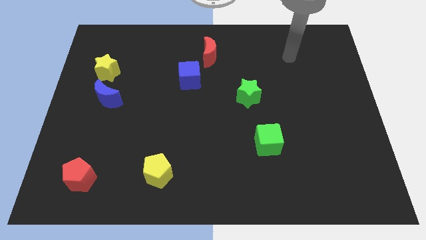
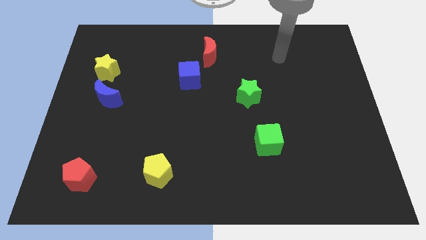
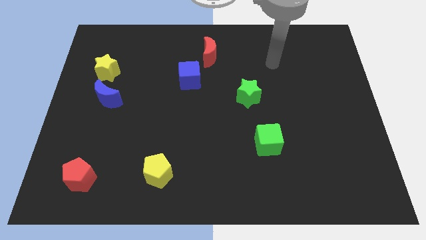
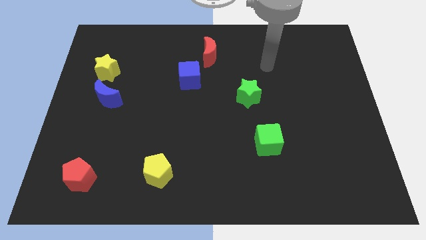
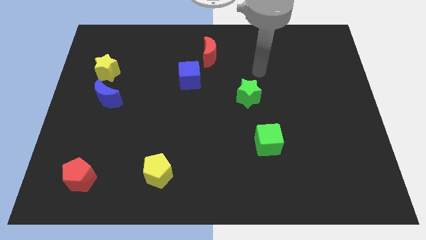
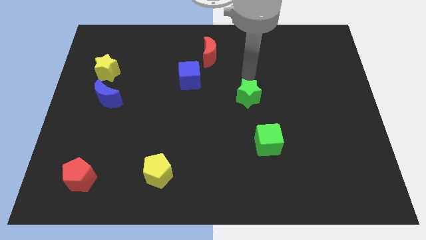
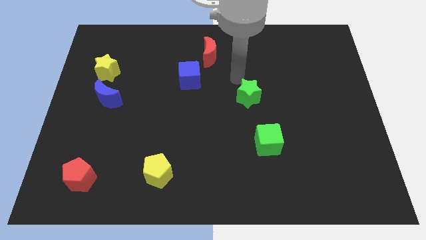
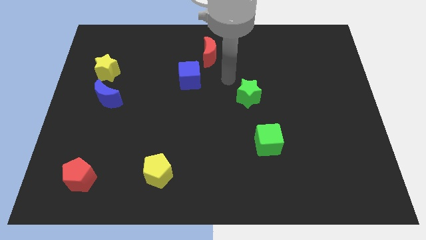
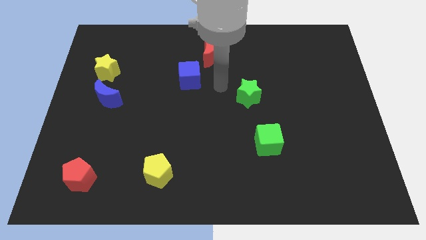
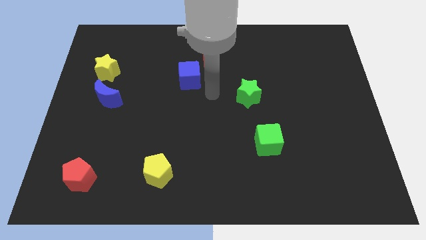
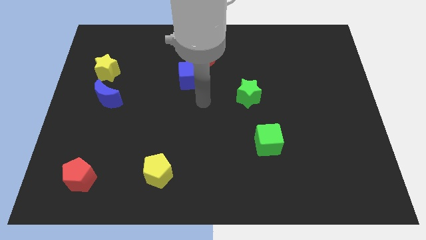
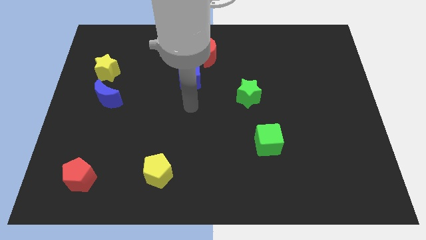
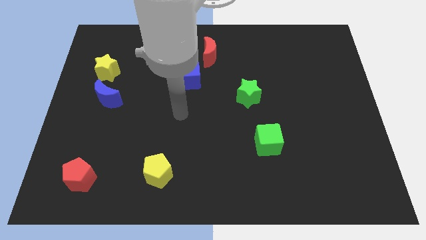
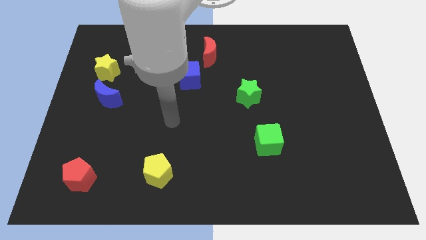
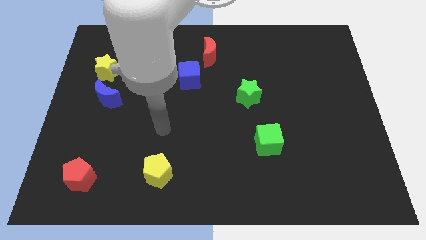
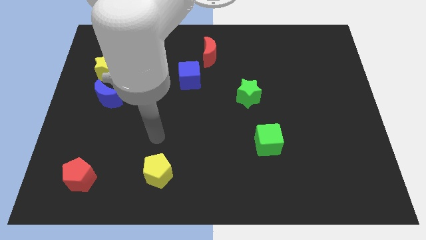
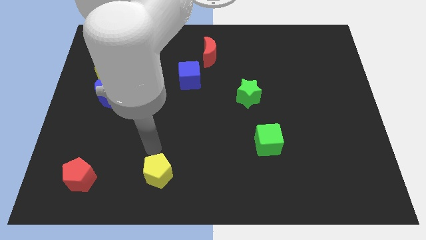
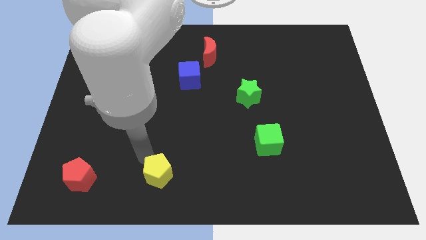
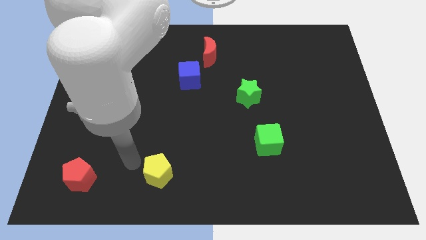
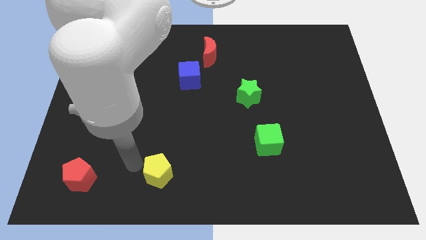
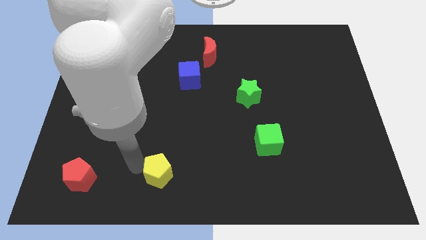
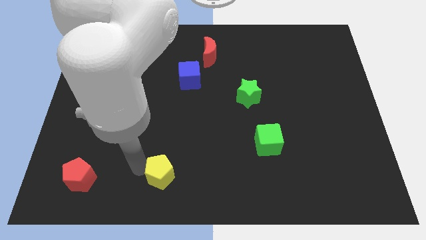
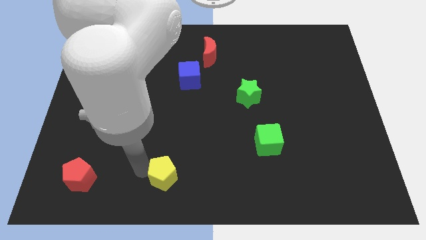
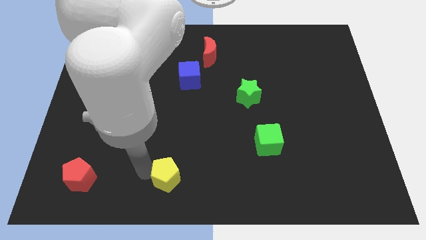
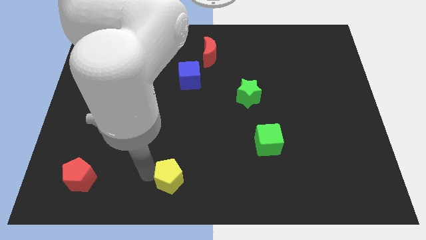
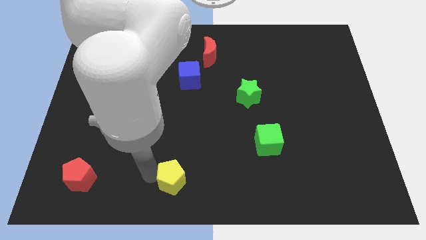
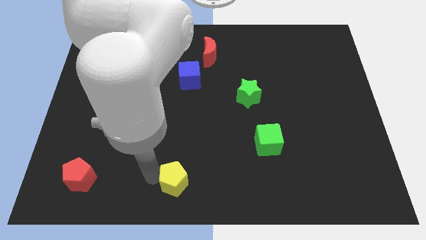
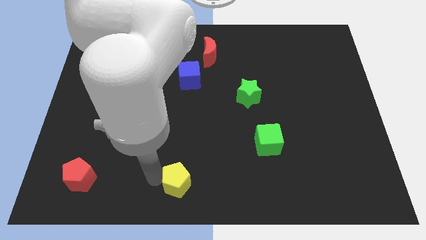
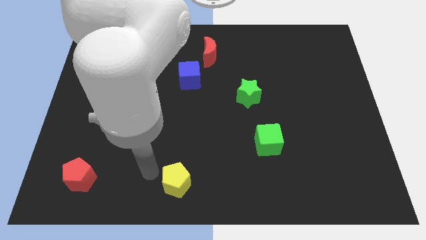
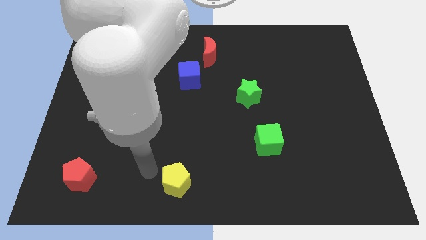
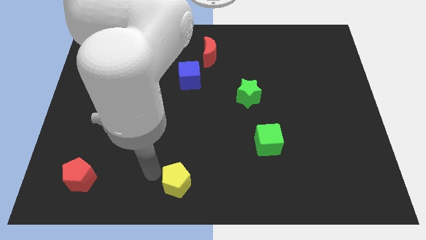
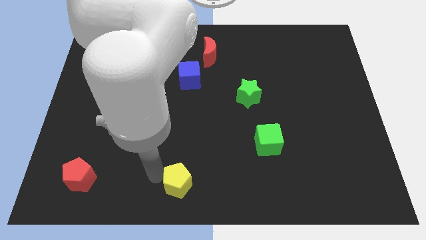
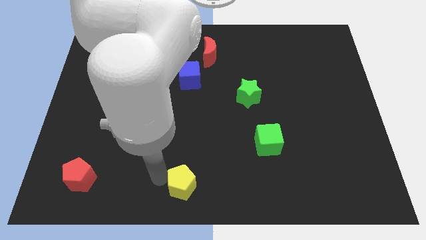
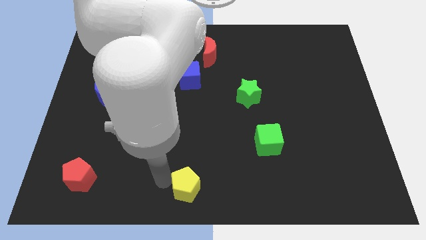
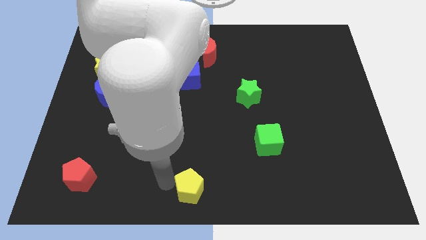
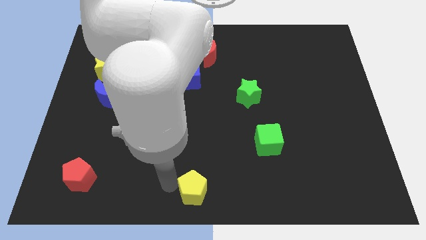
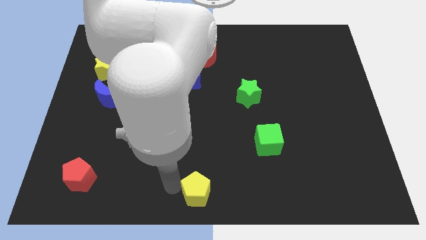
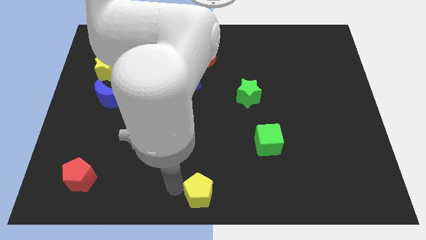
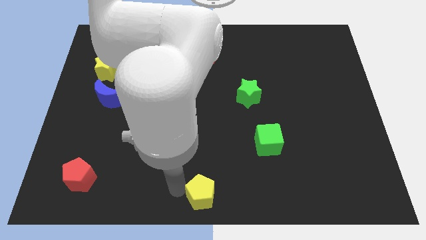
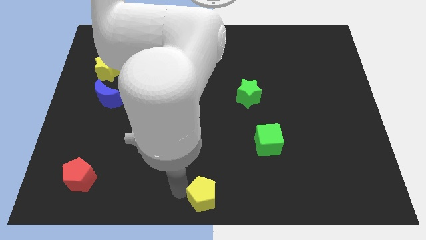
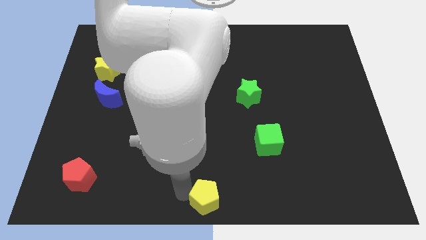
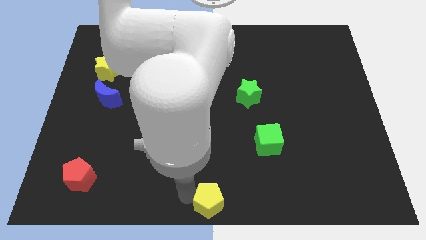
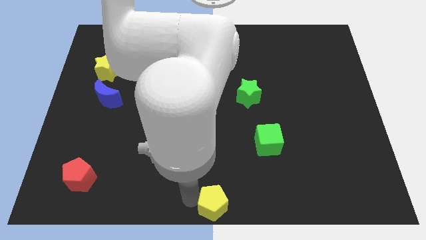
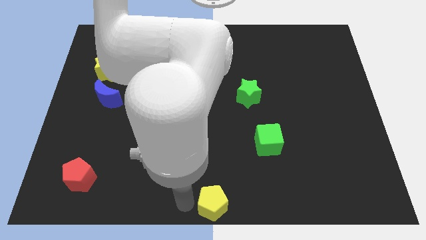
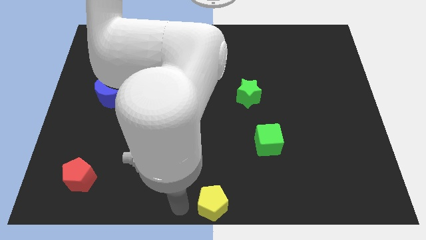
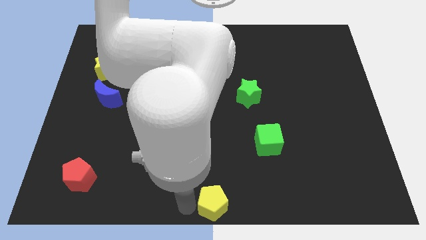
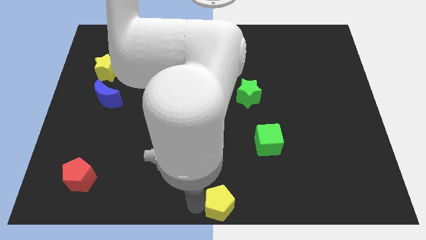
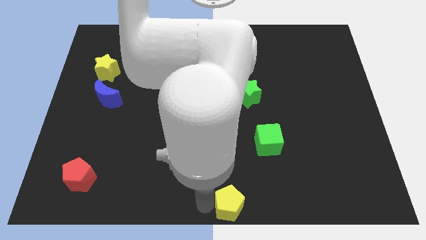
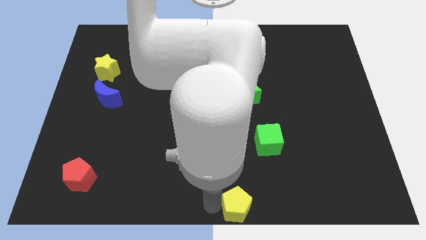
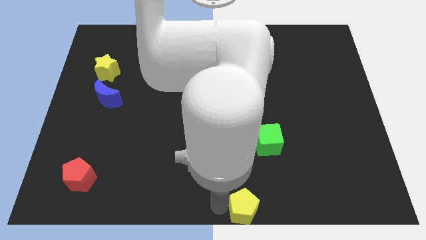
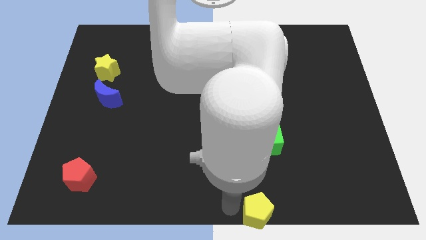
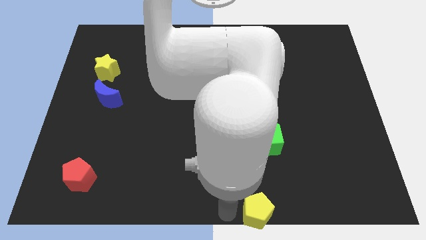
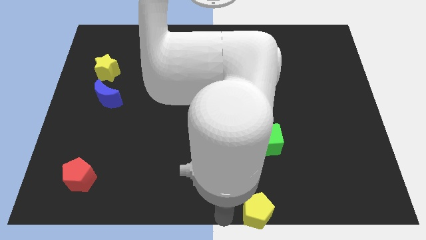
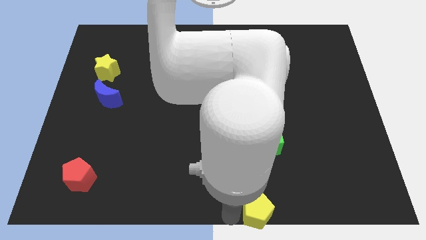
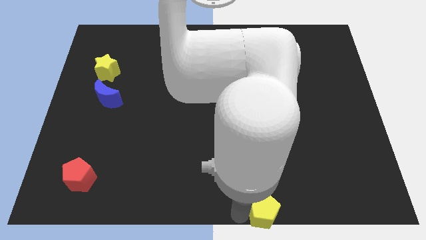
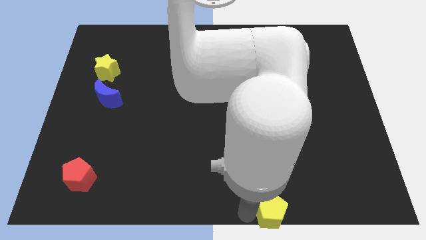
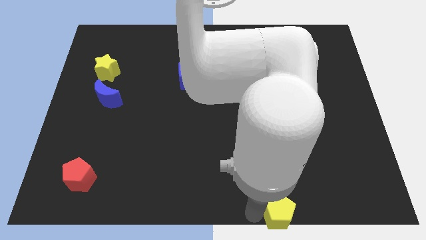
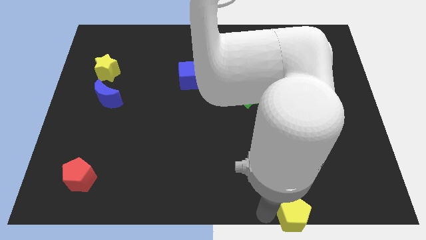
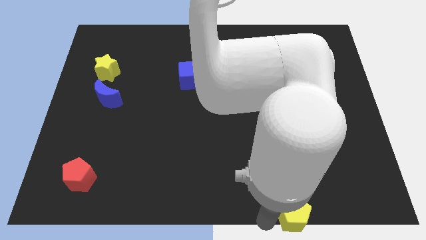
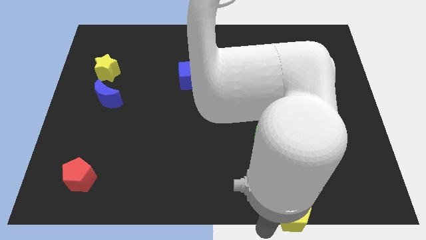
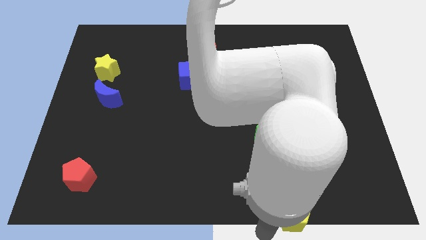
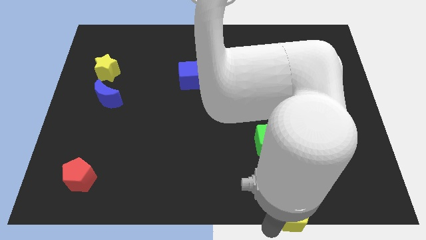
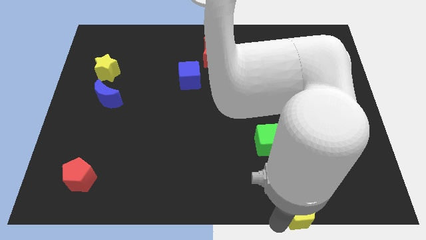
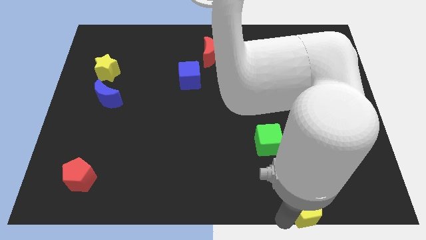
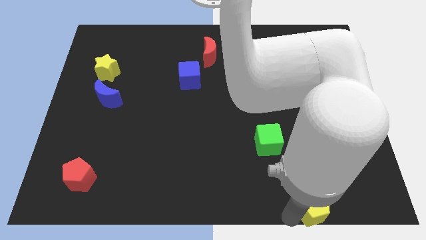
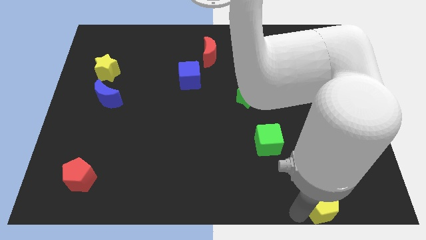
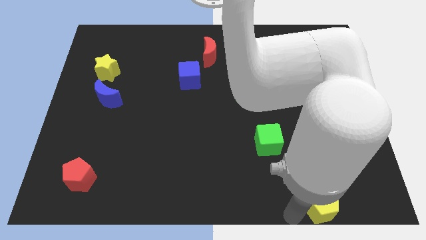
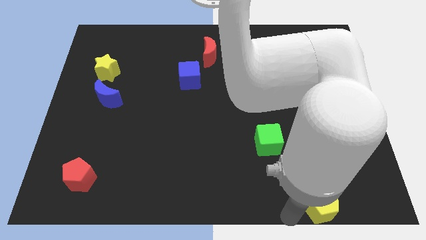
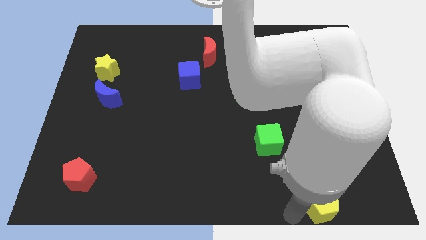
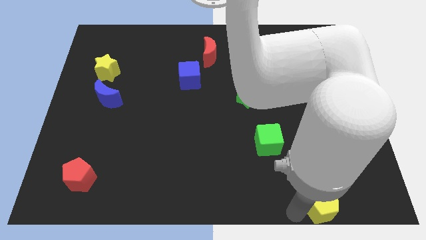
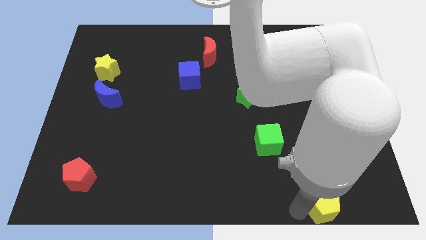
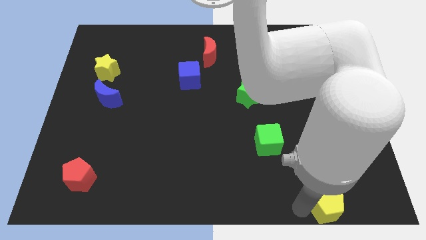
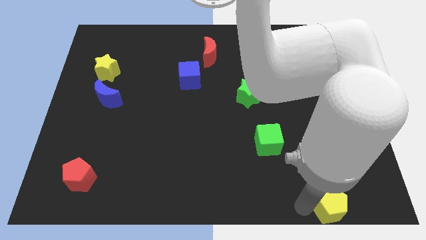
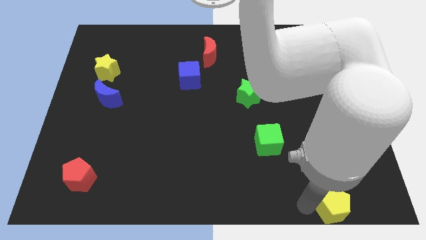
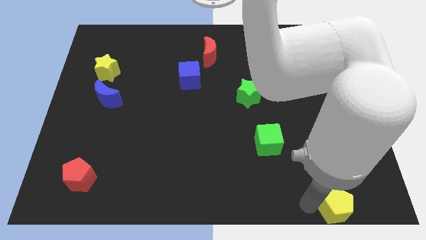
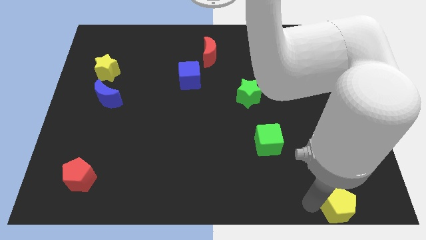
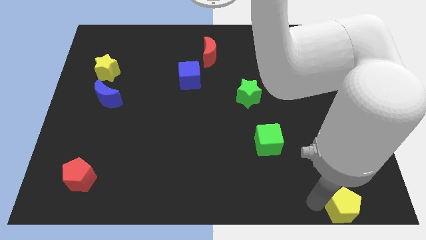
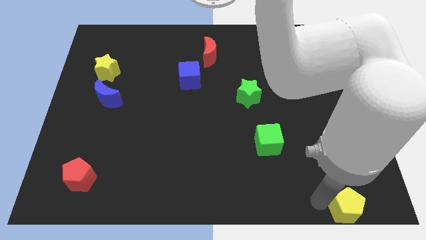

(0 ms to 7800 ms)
move the yellow pentagon to the bottom right of the board

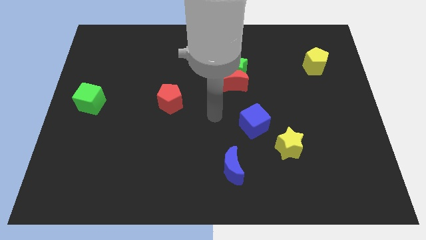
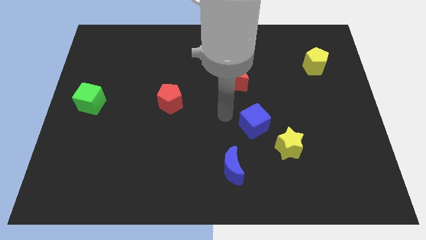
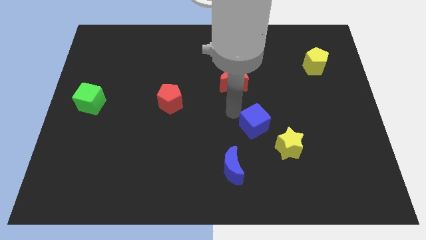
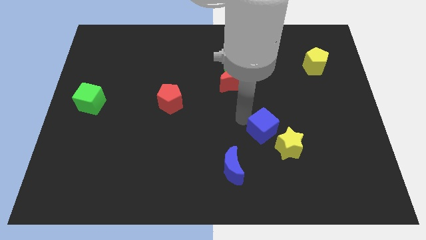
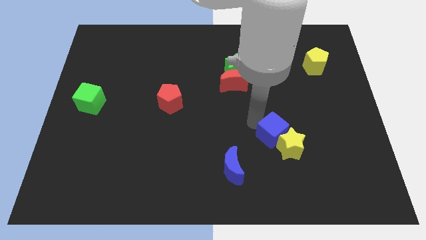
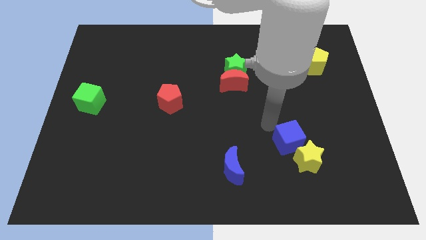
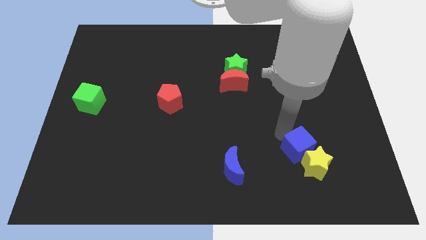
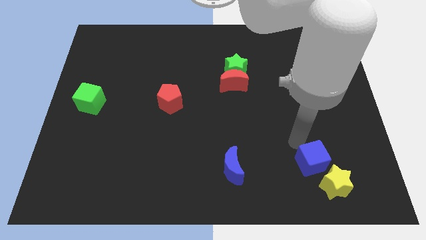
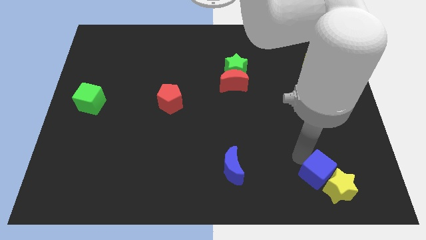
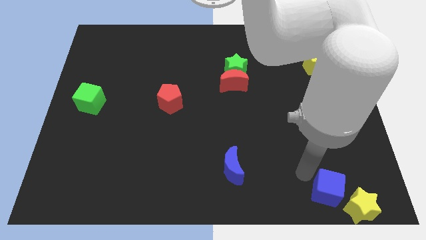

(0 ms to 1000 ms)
put the yellow star to the bottom right
